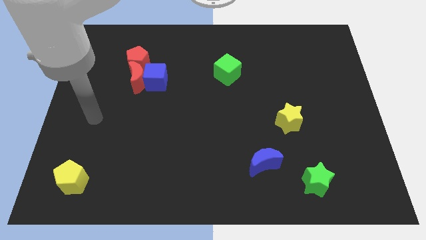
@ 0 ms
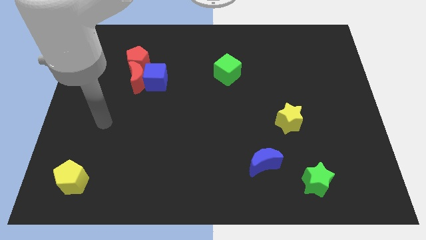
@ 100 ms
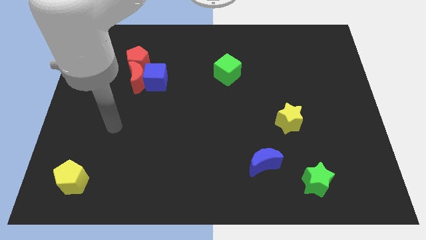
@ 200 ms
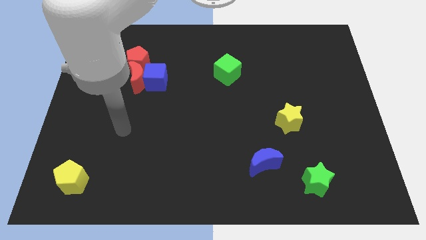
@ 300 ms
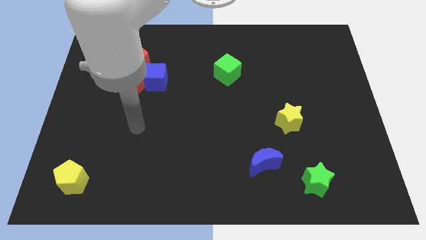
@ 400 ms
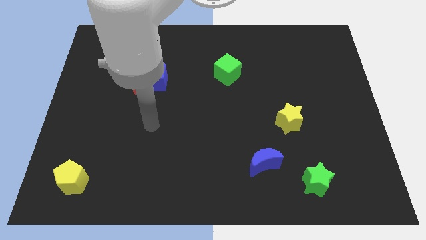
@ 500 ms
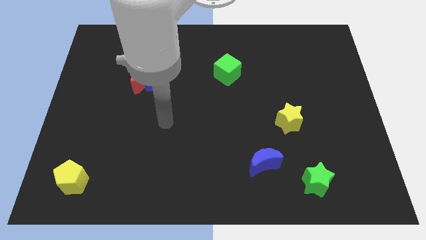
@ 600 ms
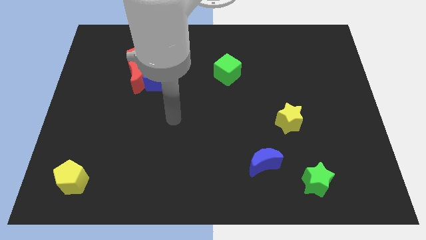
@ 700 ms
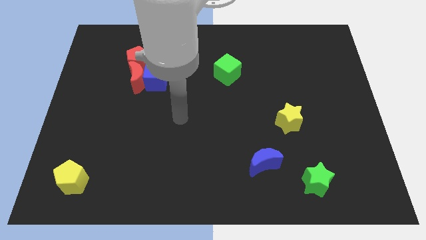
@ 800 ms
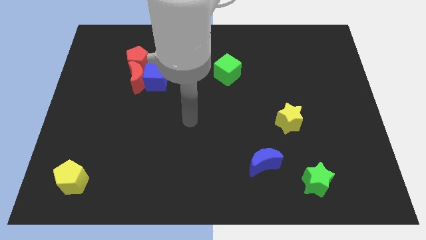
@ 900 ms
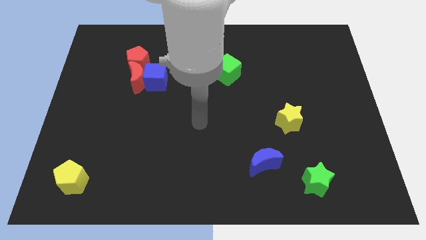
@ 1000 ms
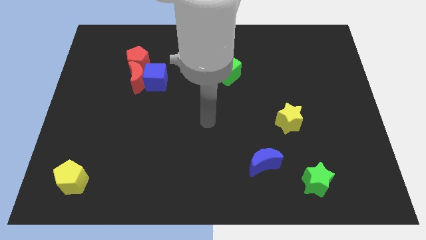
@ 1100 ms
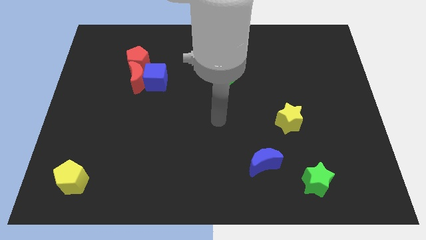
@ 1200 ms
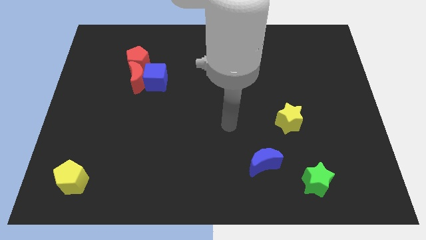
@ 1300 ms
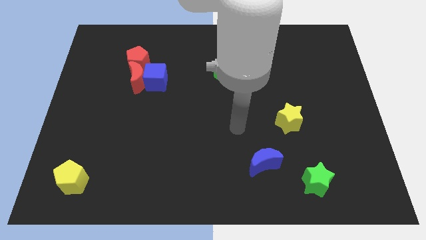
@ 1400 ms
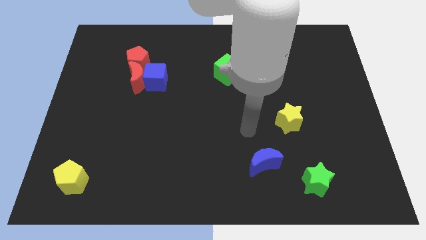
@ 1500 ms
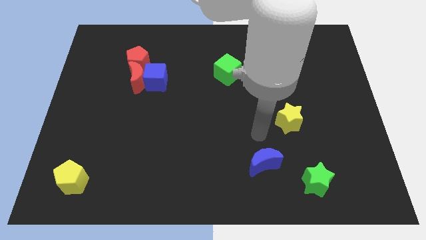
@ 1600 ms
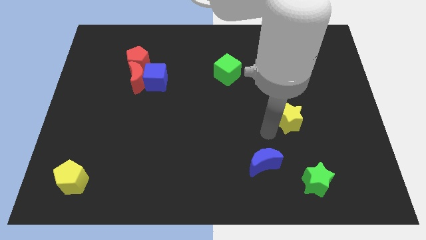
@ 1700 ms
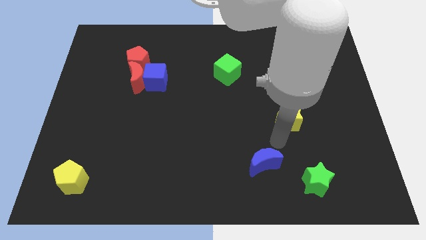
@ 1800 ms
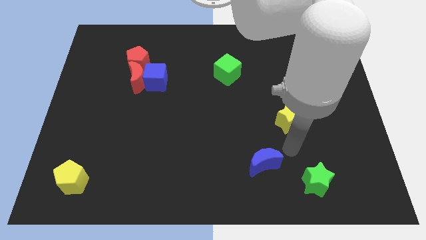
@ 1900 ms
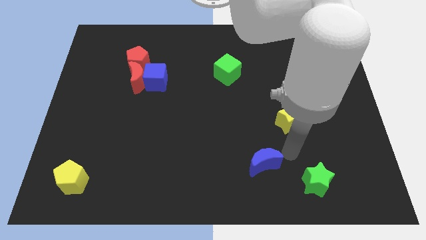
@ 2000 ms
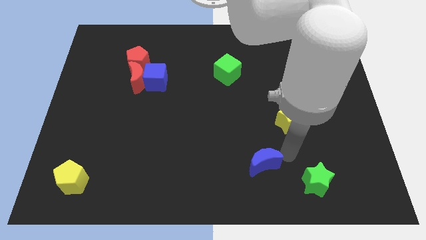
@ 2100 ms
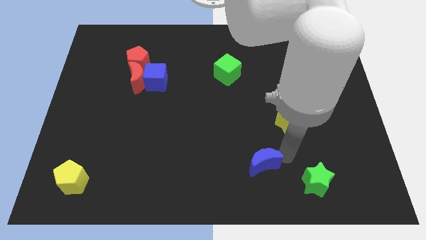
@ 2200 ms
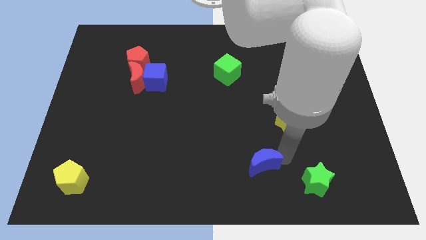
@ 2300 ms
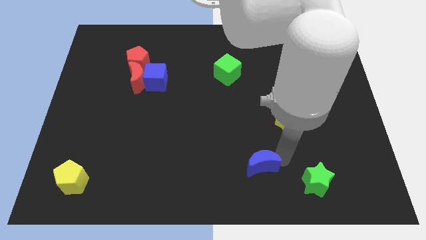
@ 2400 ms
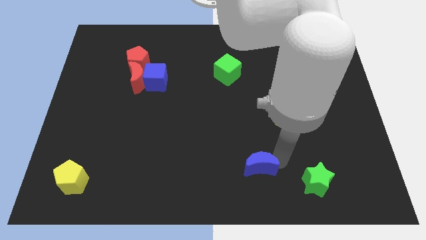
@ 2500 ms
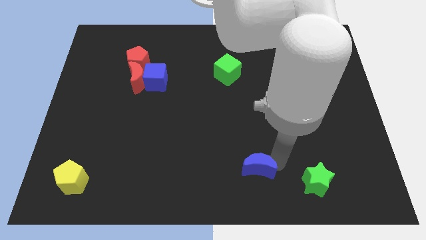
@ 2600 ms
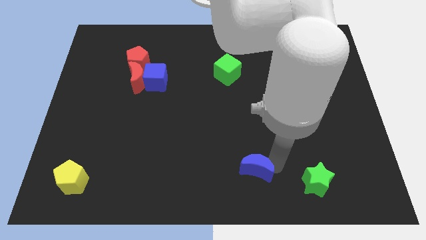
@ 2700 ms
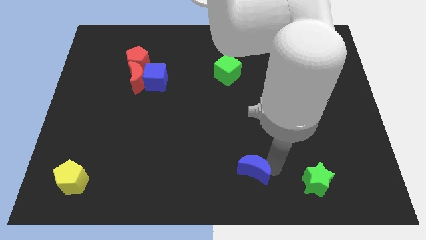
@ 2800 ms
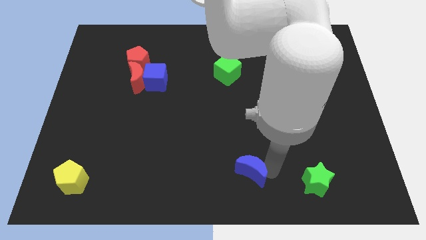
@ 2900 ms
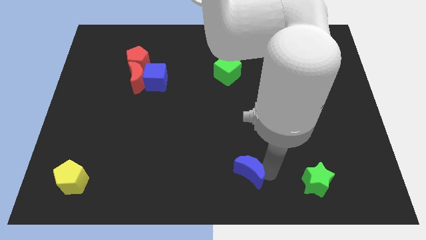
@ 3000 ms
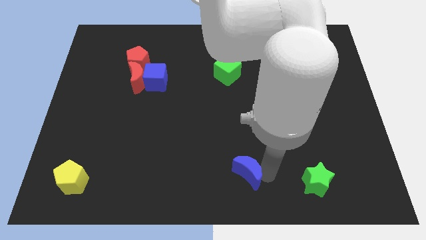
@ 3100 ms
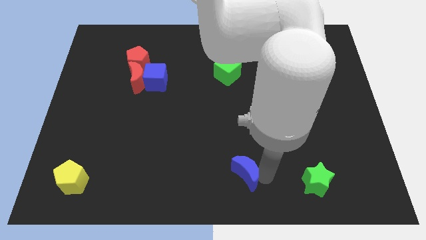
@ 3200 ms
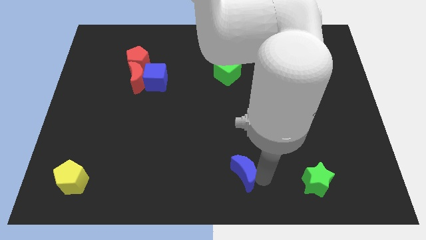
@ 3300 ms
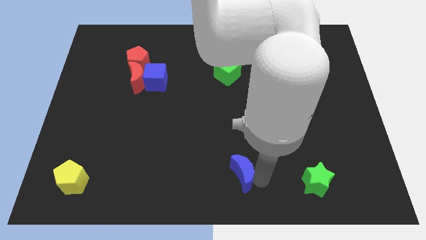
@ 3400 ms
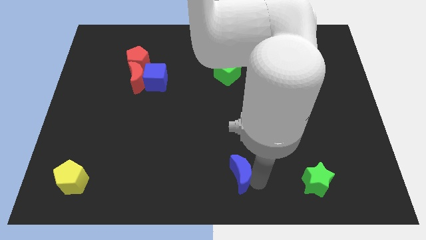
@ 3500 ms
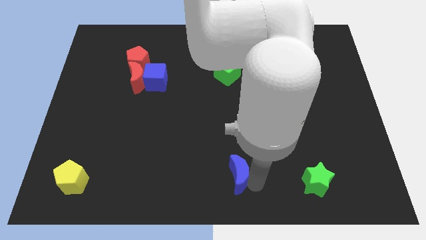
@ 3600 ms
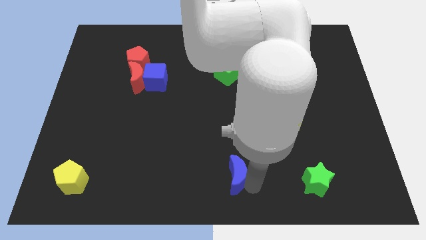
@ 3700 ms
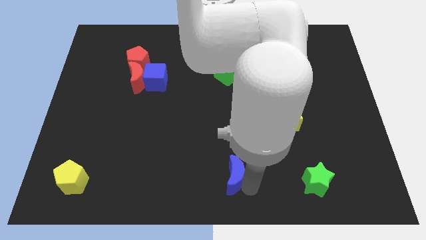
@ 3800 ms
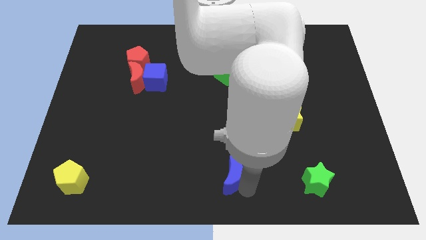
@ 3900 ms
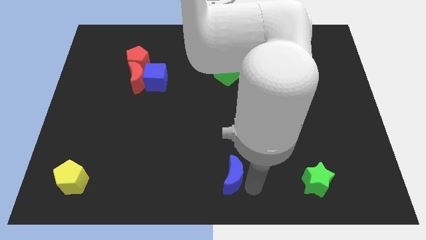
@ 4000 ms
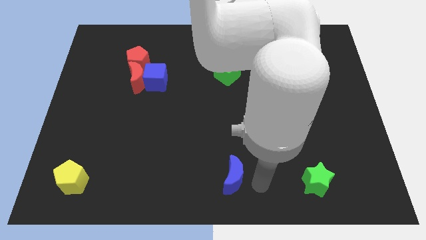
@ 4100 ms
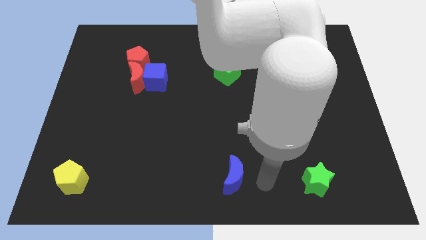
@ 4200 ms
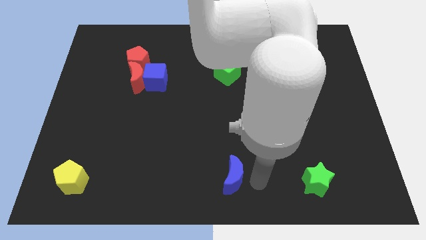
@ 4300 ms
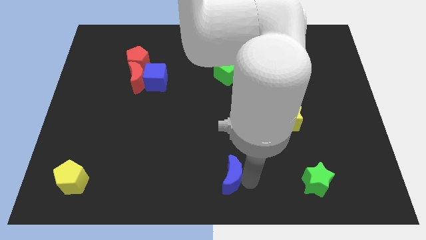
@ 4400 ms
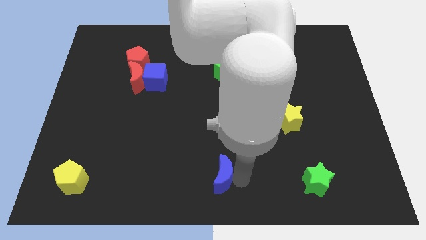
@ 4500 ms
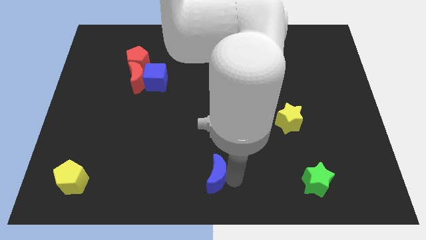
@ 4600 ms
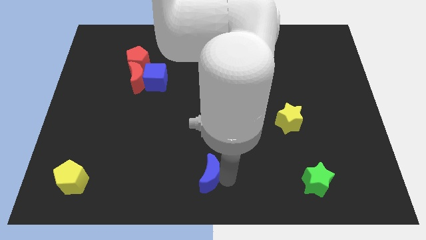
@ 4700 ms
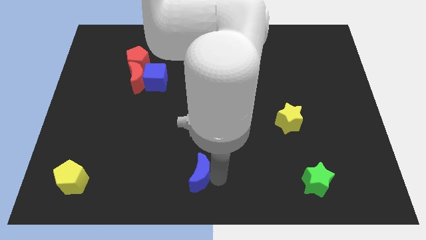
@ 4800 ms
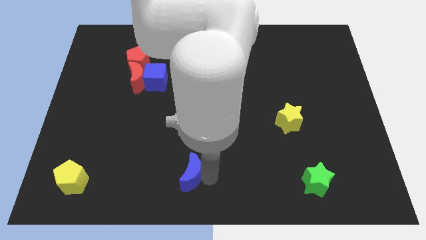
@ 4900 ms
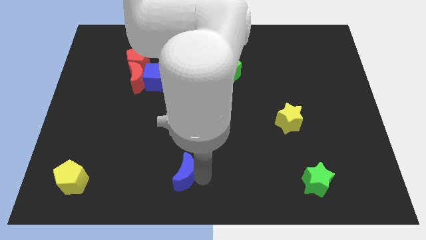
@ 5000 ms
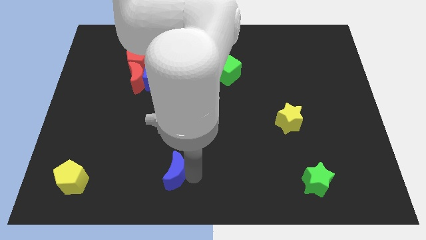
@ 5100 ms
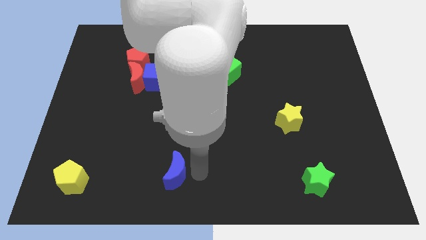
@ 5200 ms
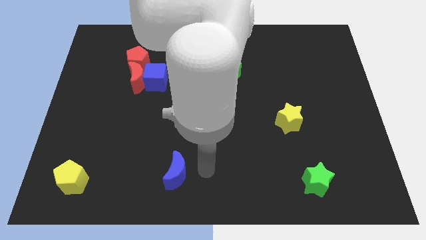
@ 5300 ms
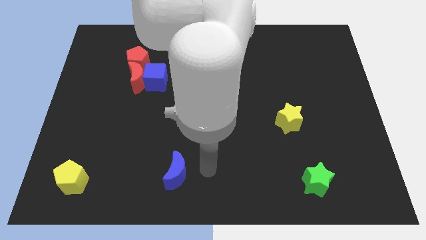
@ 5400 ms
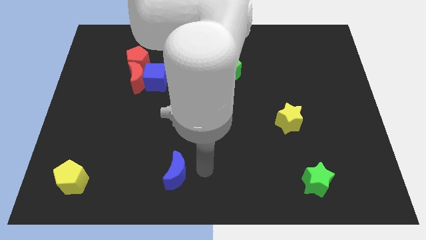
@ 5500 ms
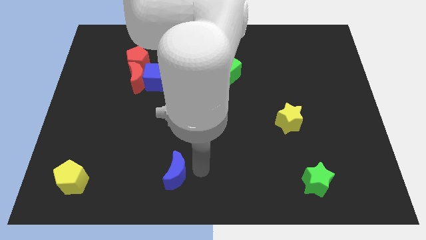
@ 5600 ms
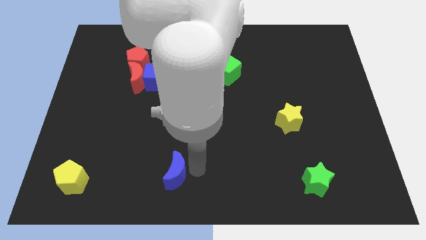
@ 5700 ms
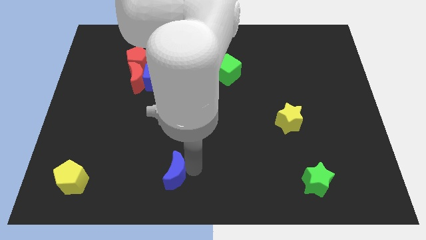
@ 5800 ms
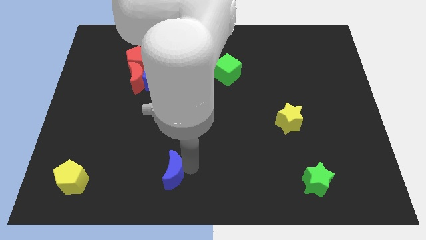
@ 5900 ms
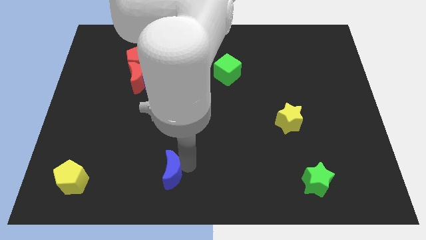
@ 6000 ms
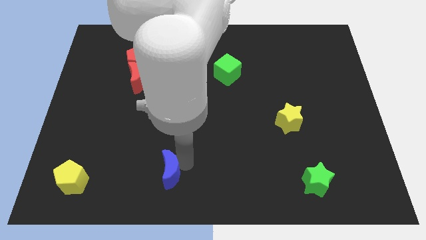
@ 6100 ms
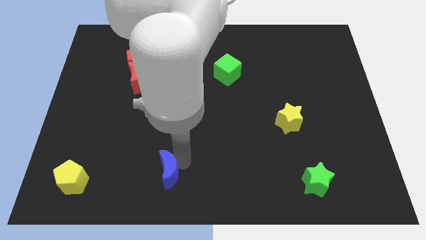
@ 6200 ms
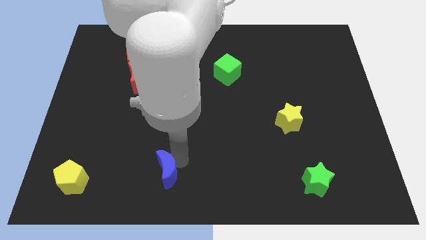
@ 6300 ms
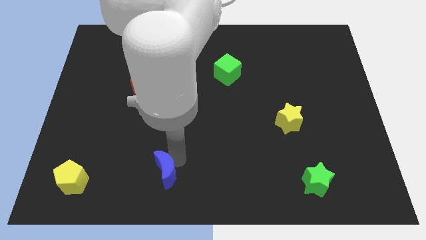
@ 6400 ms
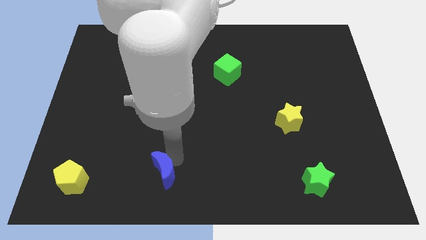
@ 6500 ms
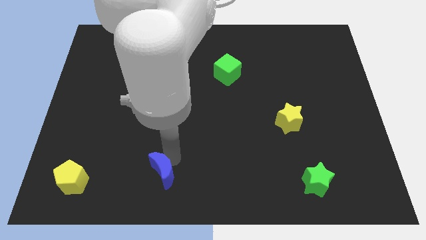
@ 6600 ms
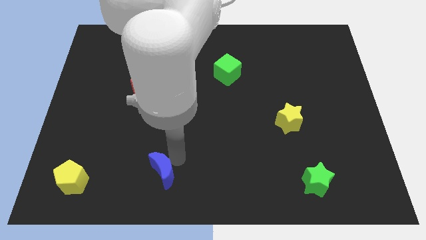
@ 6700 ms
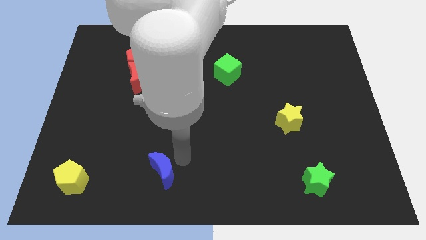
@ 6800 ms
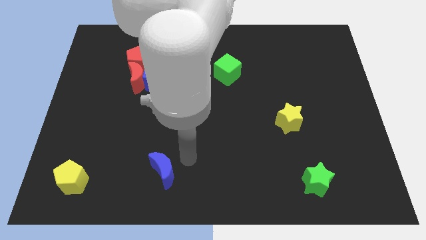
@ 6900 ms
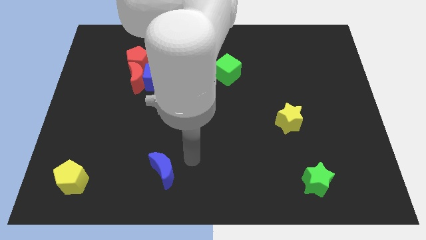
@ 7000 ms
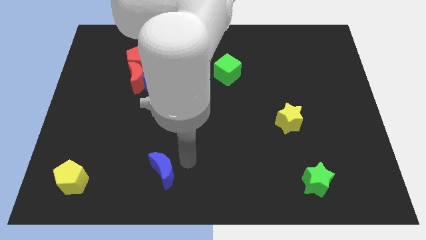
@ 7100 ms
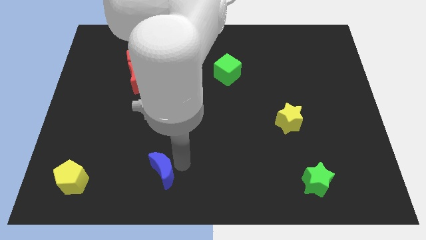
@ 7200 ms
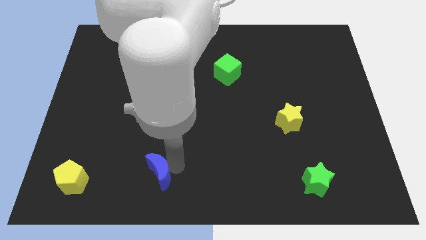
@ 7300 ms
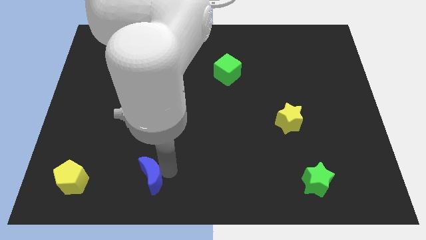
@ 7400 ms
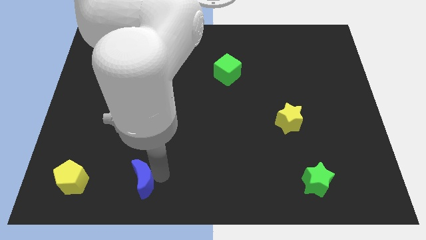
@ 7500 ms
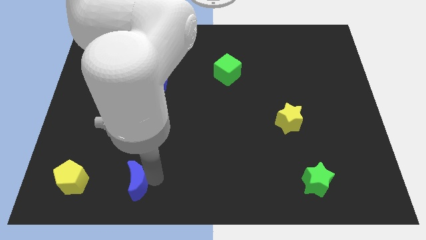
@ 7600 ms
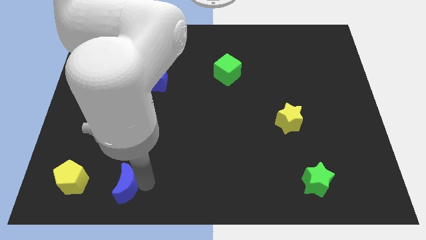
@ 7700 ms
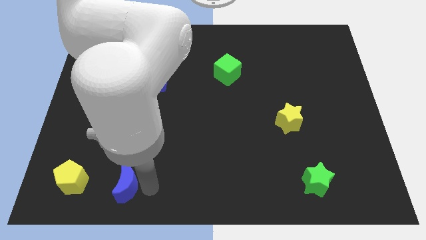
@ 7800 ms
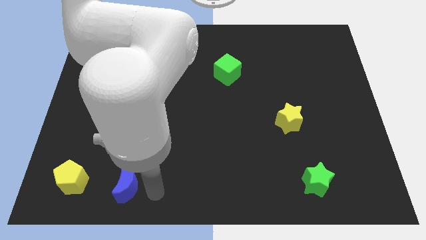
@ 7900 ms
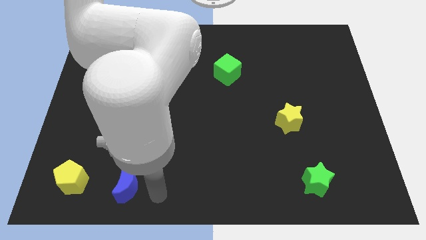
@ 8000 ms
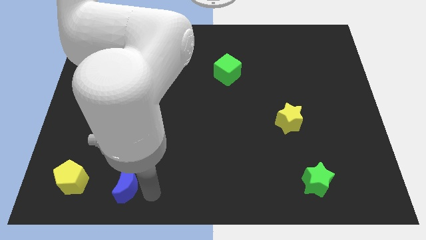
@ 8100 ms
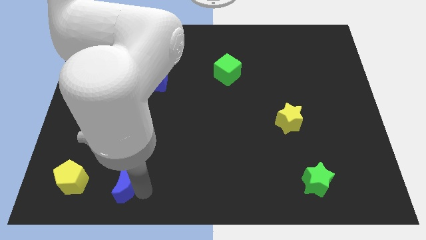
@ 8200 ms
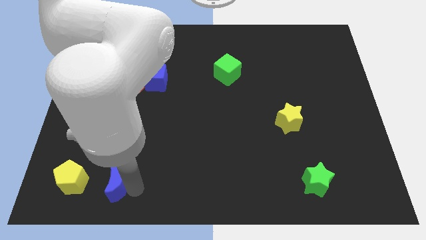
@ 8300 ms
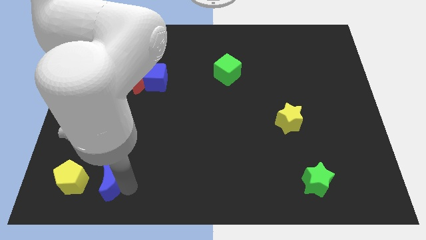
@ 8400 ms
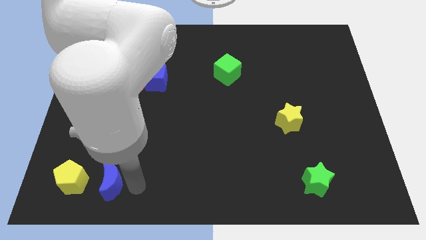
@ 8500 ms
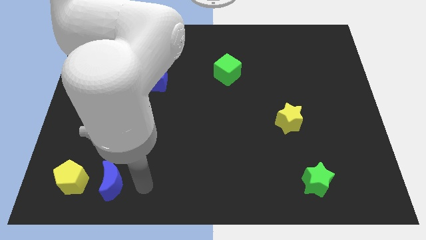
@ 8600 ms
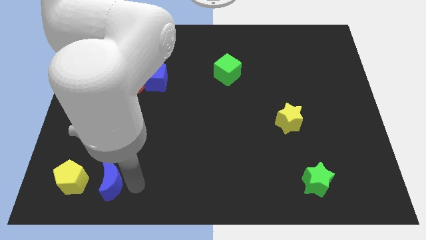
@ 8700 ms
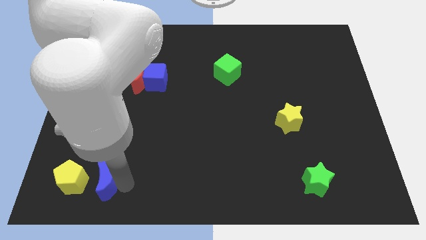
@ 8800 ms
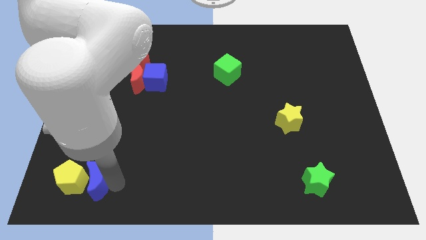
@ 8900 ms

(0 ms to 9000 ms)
move the blue moon close to the yellow pentagon
